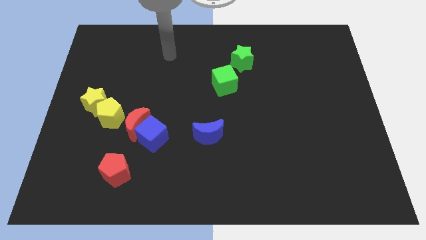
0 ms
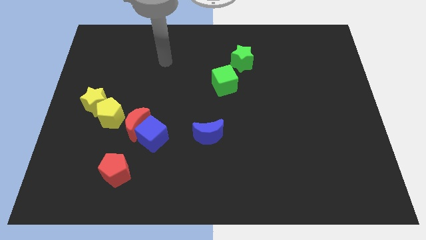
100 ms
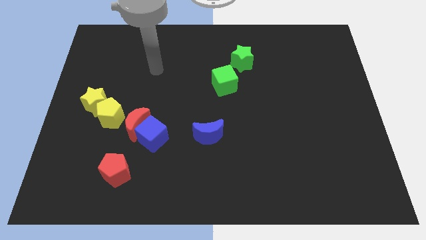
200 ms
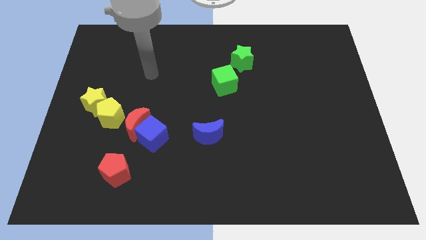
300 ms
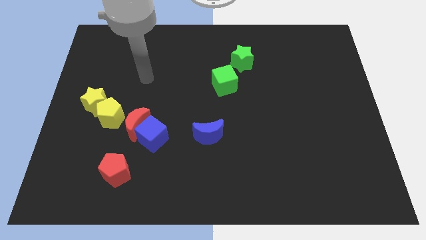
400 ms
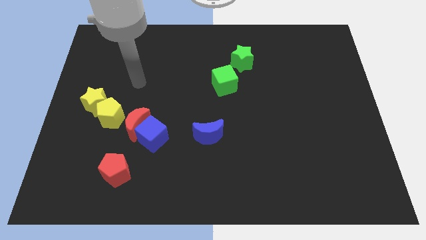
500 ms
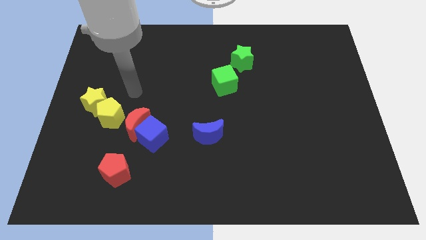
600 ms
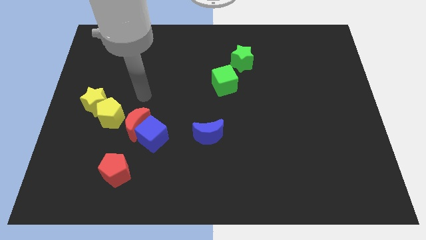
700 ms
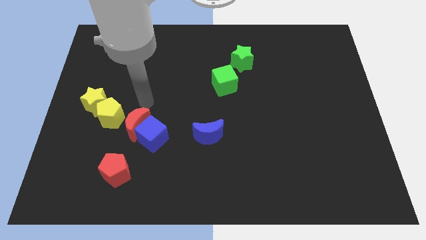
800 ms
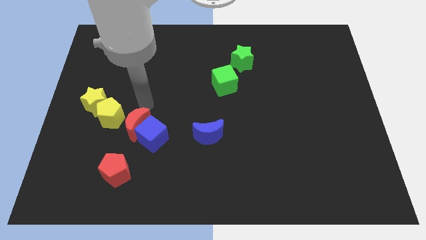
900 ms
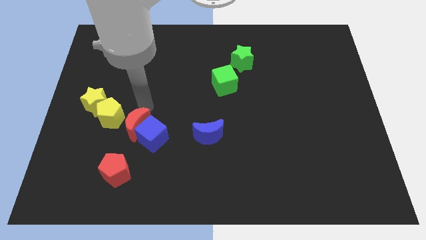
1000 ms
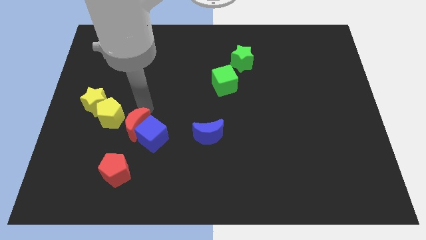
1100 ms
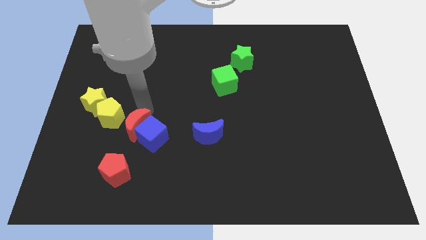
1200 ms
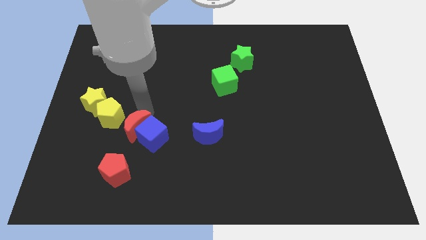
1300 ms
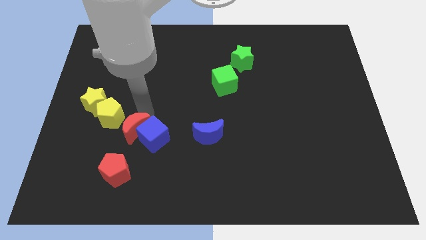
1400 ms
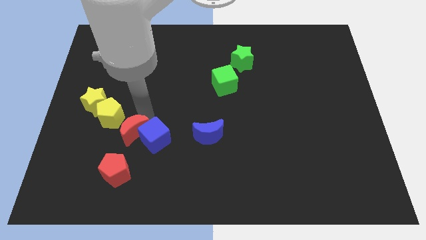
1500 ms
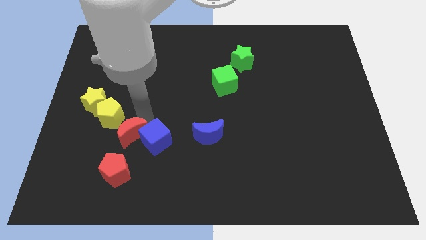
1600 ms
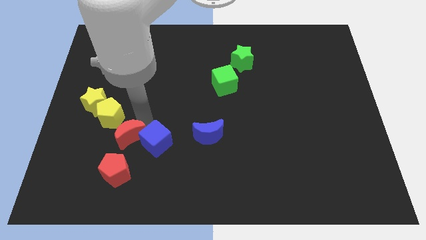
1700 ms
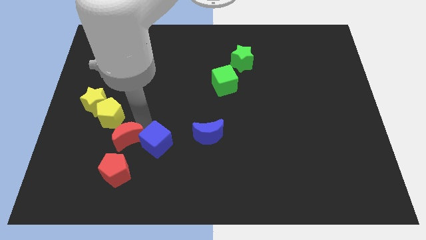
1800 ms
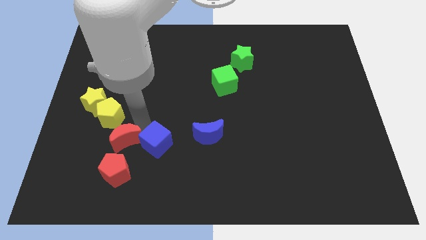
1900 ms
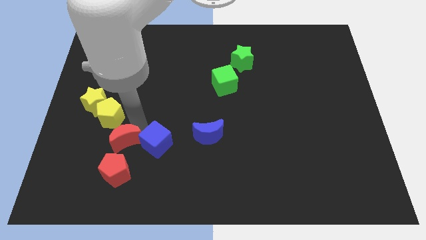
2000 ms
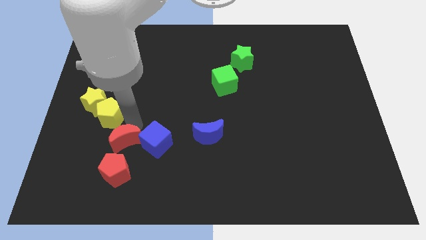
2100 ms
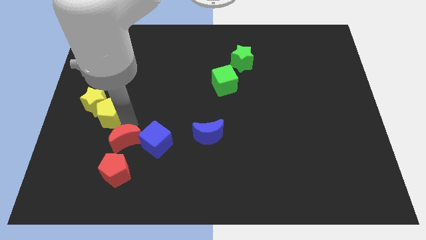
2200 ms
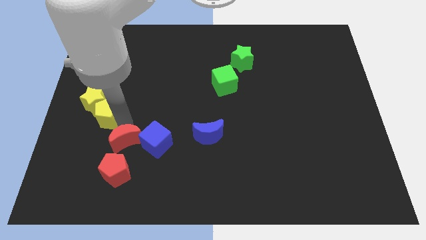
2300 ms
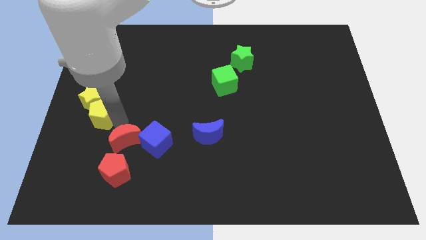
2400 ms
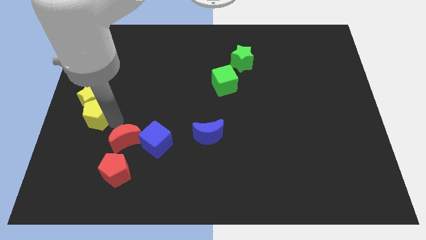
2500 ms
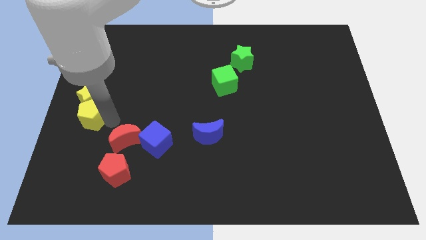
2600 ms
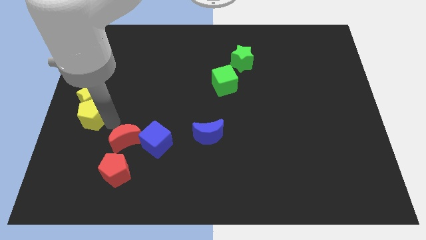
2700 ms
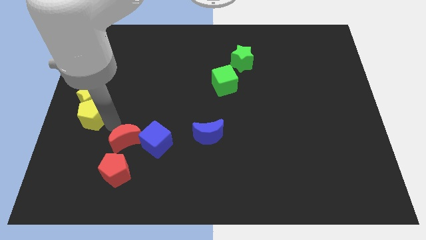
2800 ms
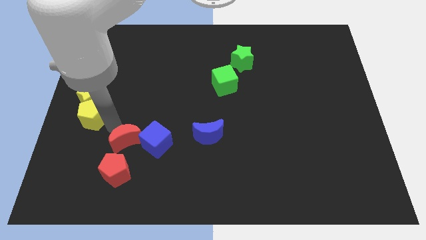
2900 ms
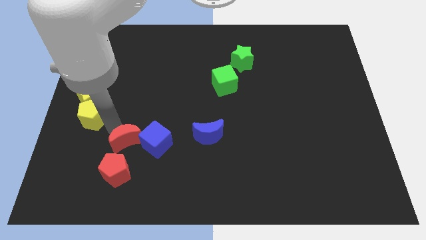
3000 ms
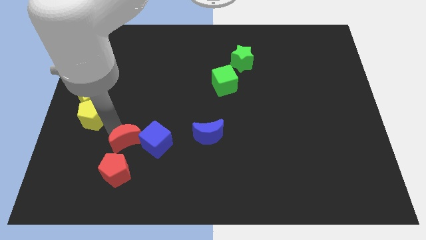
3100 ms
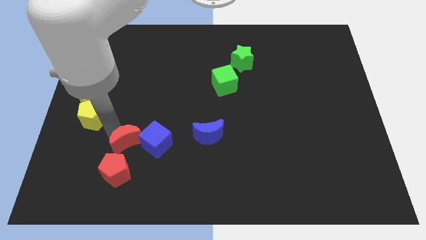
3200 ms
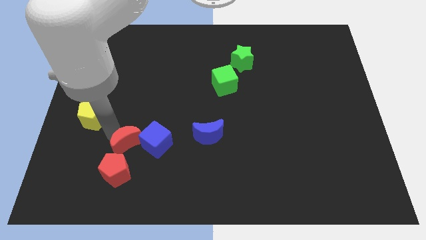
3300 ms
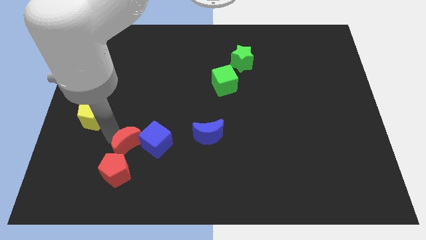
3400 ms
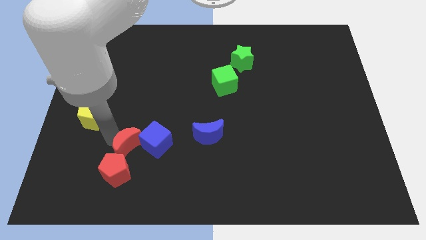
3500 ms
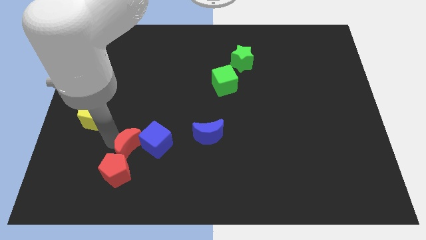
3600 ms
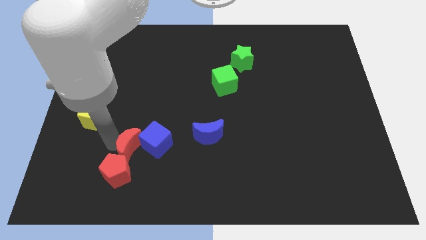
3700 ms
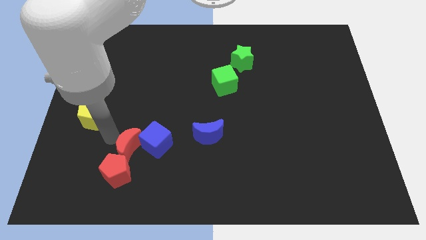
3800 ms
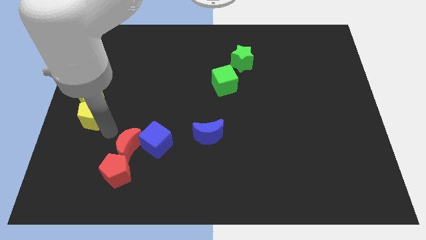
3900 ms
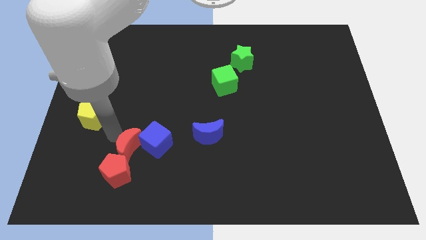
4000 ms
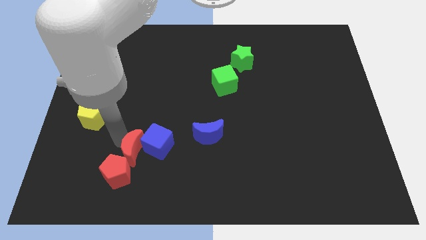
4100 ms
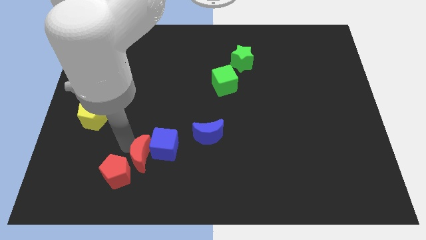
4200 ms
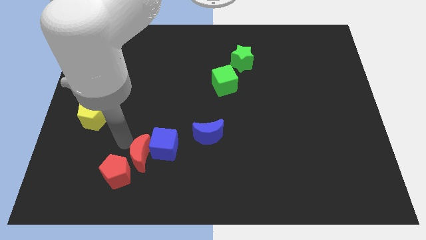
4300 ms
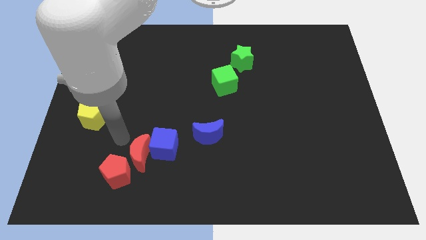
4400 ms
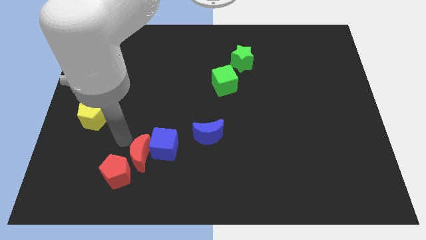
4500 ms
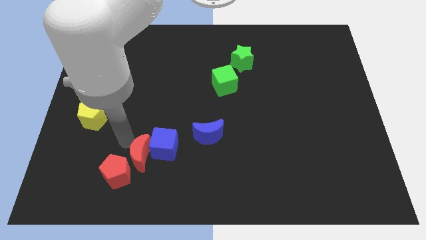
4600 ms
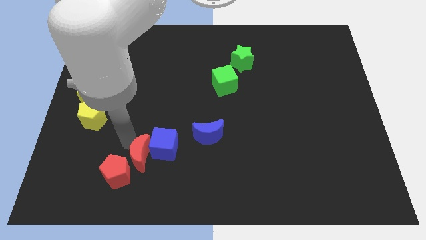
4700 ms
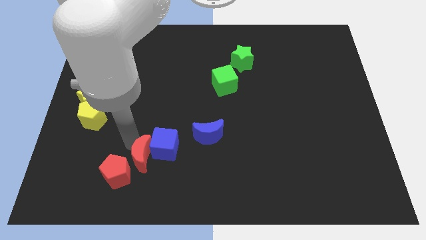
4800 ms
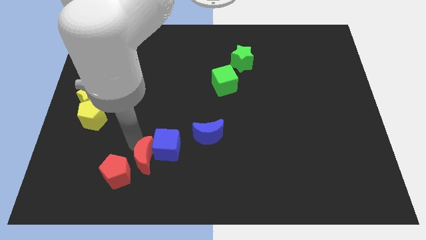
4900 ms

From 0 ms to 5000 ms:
slightly move the red moon downwards and then right

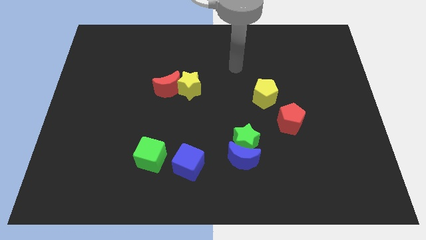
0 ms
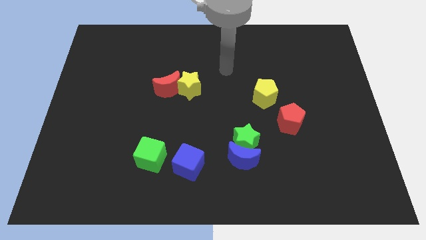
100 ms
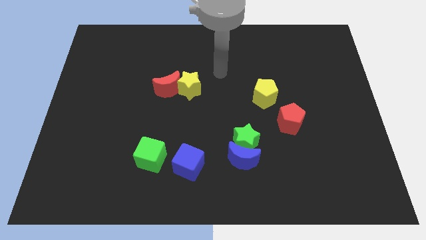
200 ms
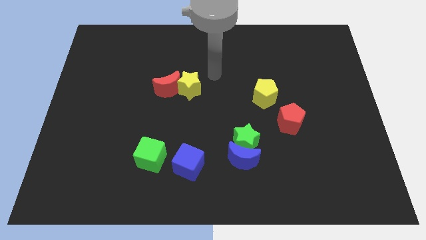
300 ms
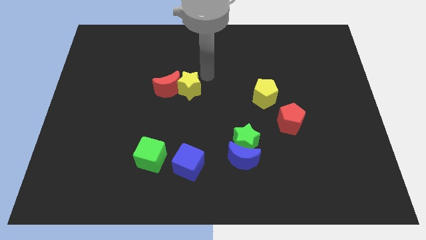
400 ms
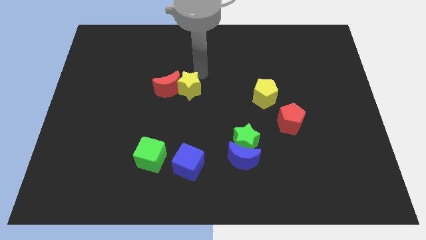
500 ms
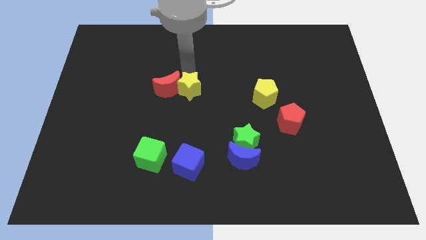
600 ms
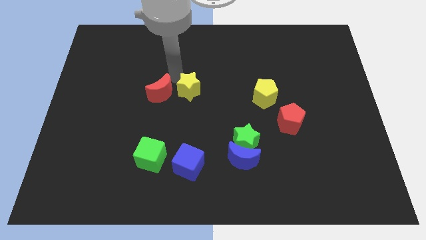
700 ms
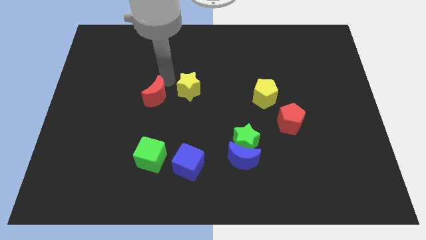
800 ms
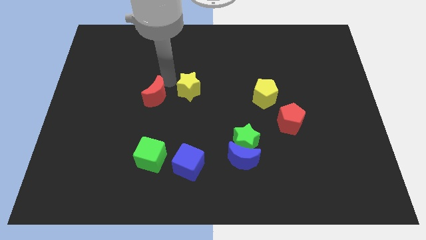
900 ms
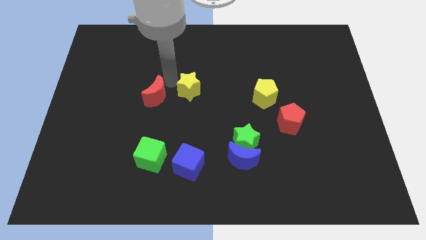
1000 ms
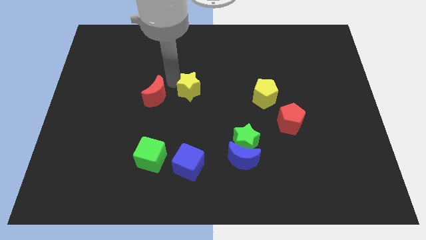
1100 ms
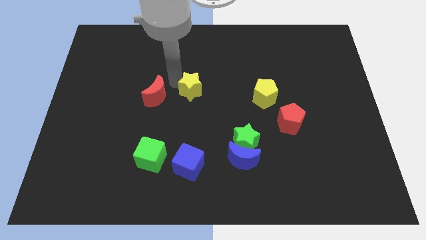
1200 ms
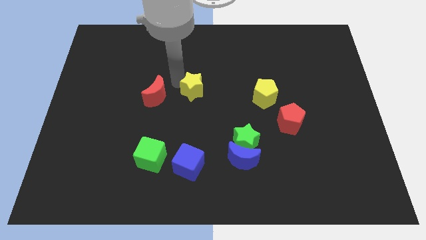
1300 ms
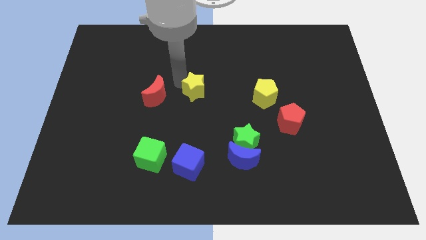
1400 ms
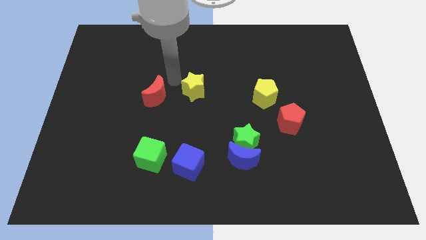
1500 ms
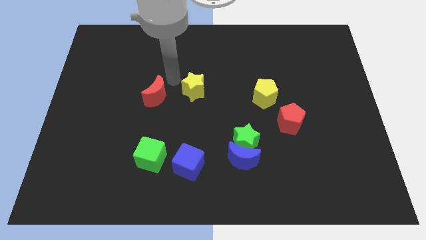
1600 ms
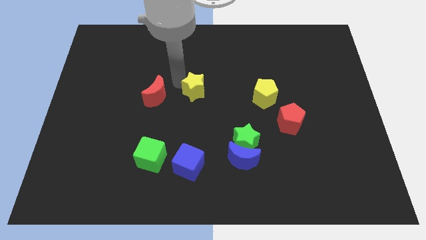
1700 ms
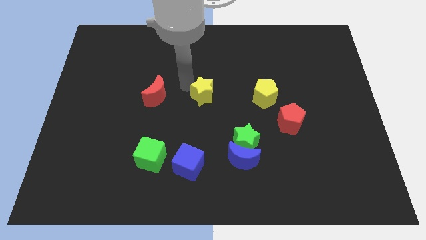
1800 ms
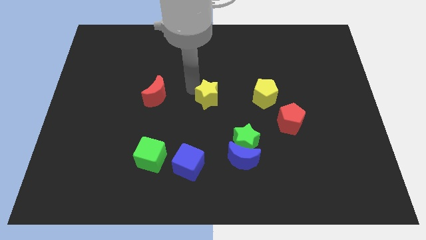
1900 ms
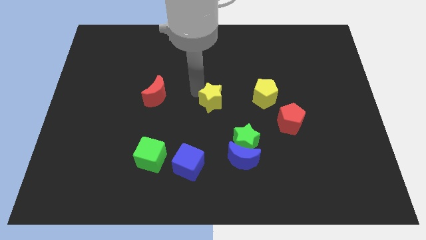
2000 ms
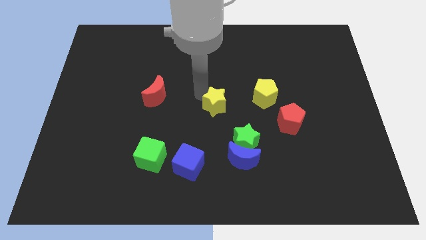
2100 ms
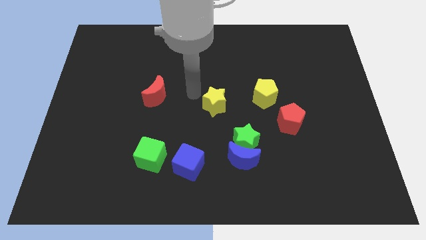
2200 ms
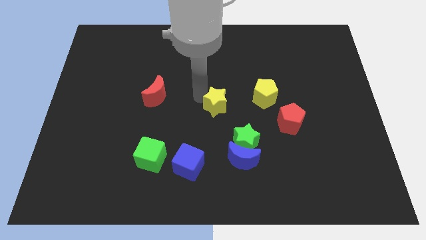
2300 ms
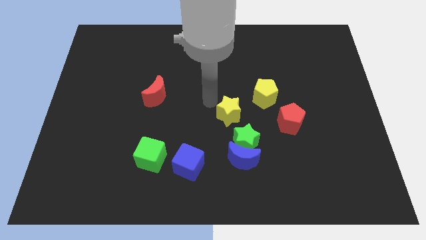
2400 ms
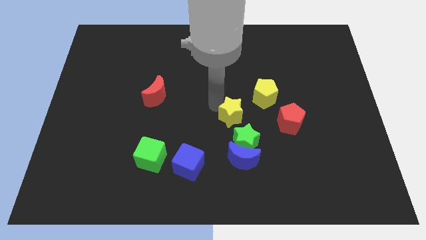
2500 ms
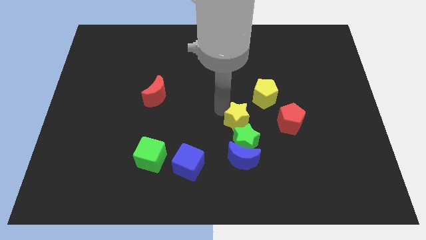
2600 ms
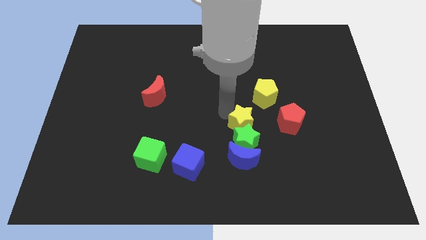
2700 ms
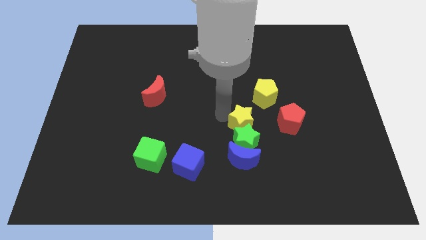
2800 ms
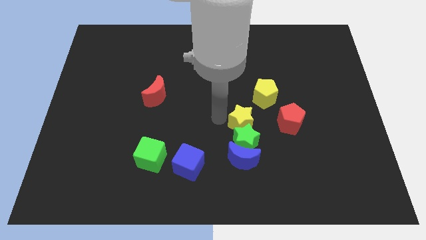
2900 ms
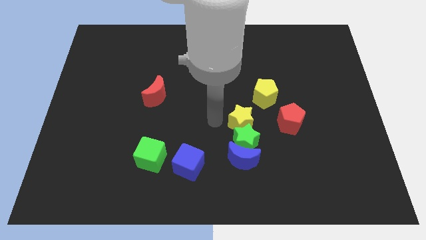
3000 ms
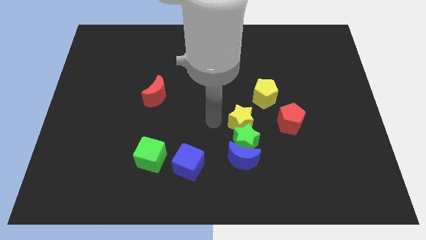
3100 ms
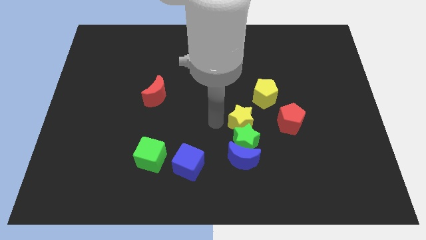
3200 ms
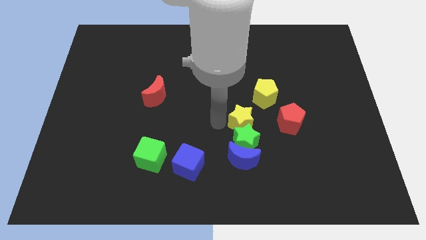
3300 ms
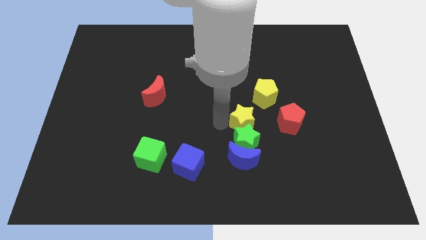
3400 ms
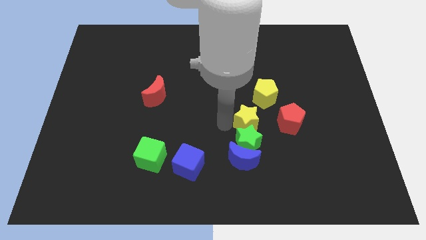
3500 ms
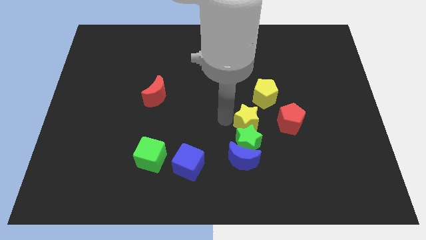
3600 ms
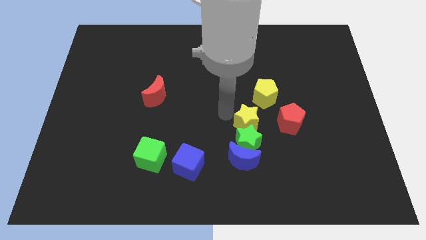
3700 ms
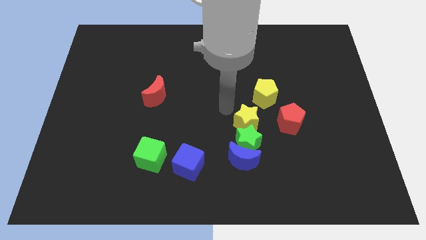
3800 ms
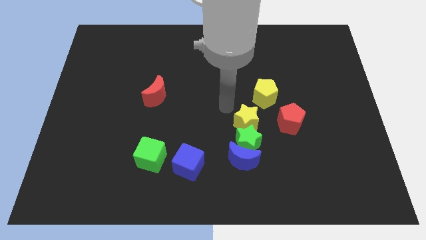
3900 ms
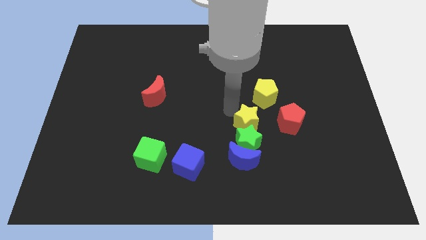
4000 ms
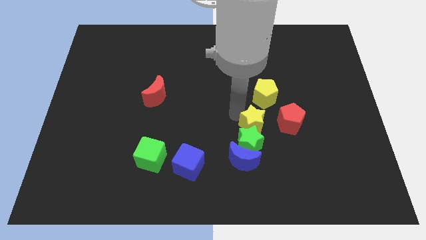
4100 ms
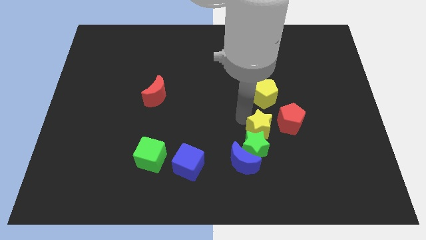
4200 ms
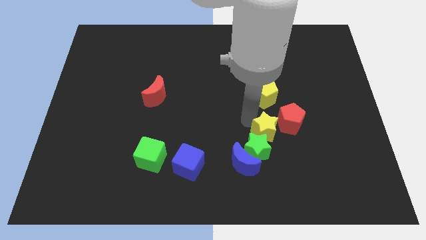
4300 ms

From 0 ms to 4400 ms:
slide the yellow star down and right diagonally
